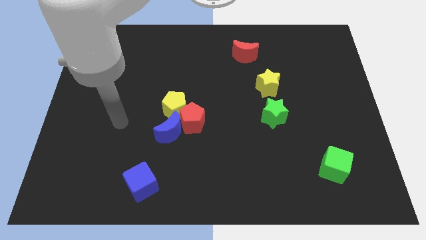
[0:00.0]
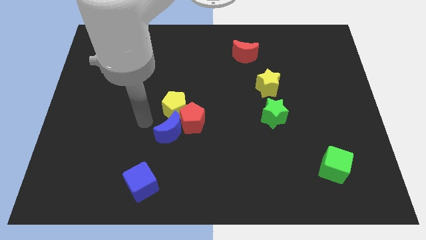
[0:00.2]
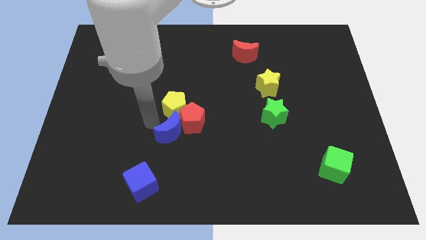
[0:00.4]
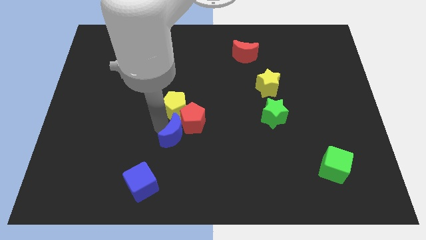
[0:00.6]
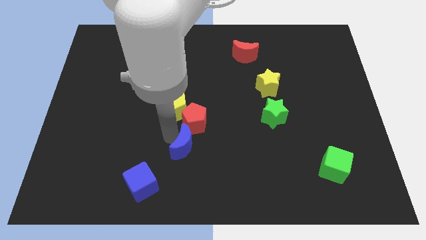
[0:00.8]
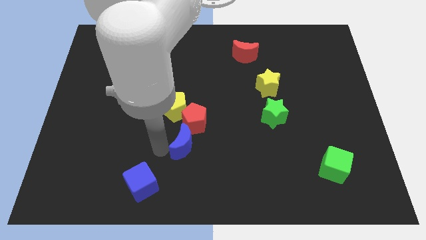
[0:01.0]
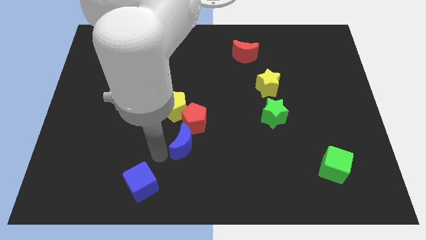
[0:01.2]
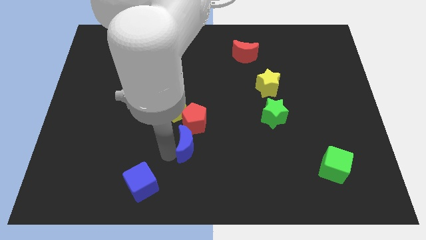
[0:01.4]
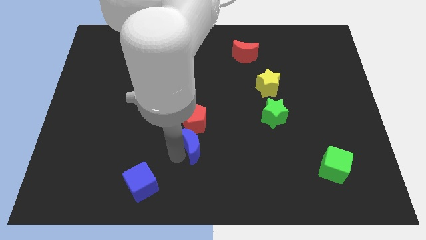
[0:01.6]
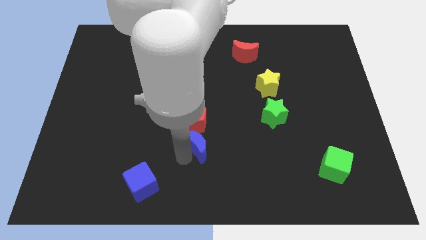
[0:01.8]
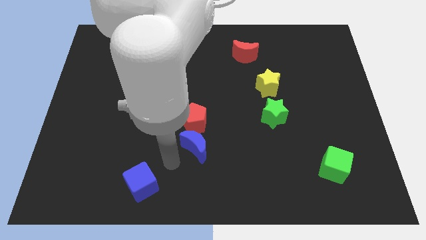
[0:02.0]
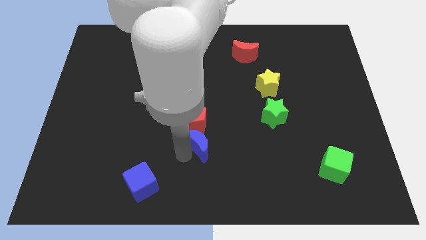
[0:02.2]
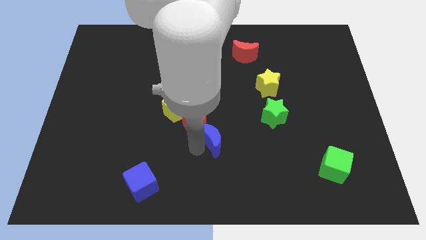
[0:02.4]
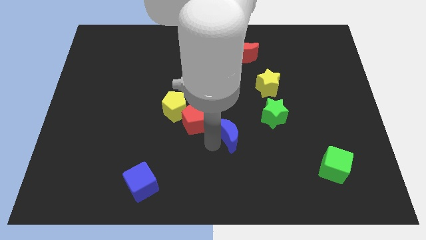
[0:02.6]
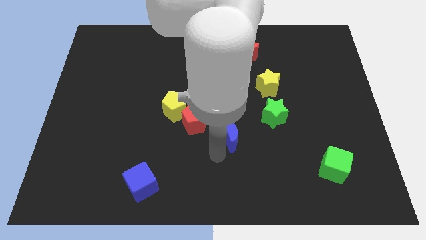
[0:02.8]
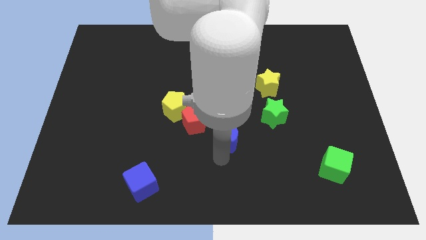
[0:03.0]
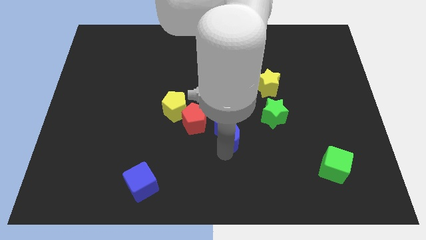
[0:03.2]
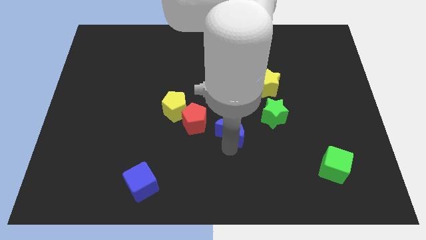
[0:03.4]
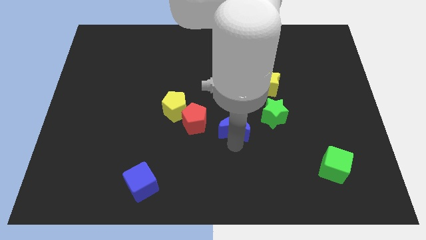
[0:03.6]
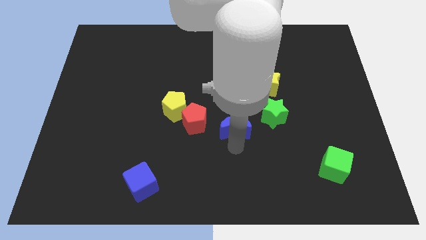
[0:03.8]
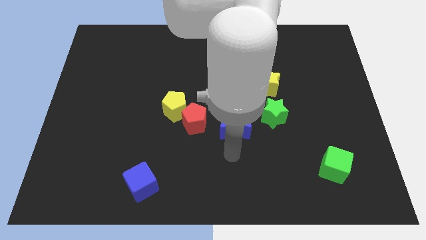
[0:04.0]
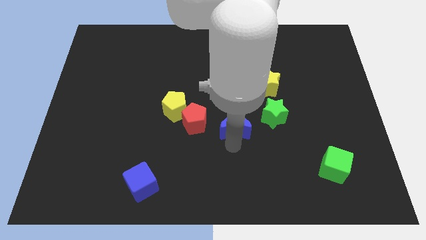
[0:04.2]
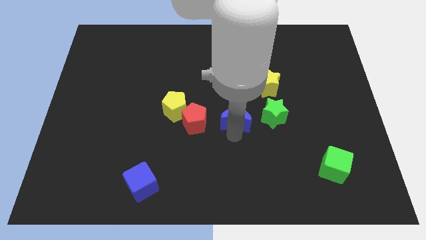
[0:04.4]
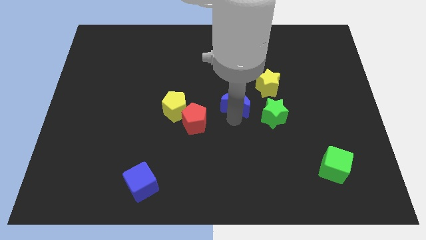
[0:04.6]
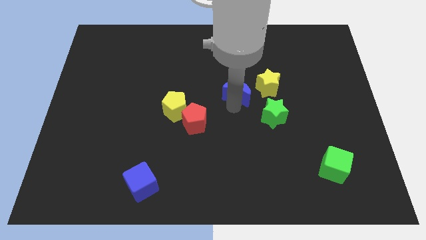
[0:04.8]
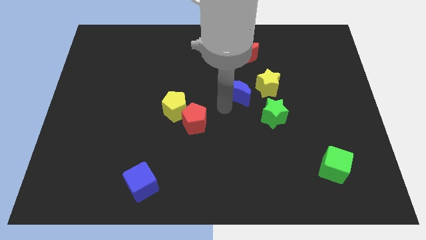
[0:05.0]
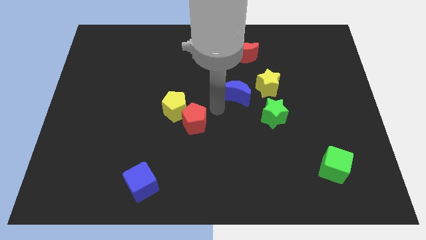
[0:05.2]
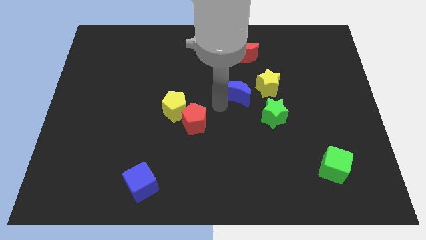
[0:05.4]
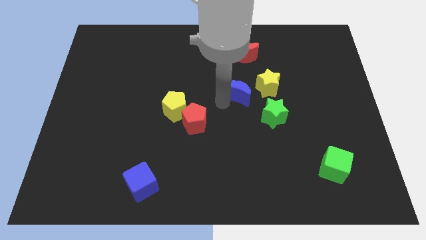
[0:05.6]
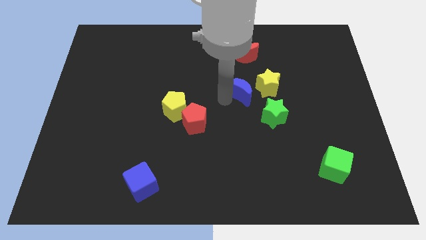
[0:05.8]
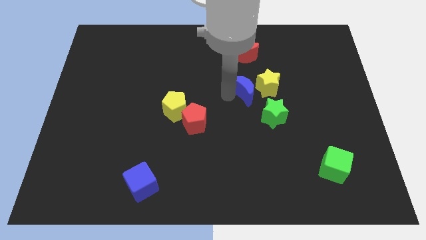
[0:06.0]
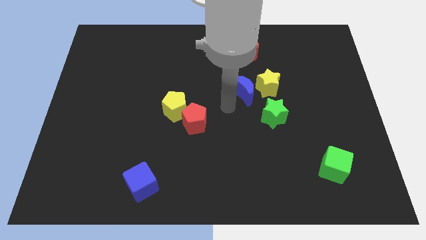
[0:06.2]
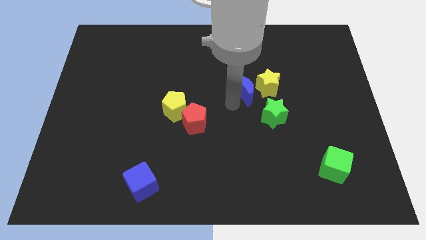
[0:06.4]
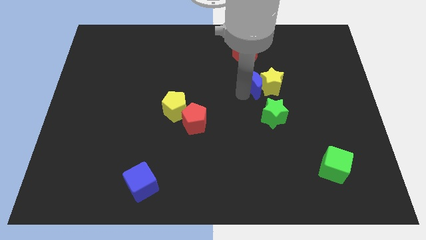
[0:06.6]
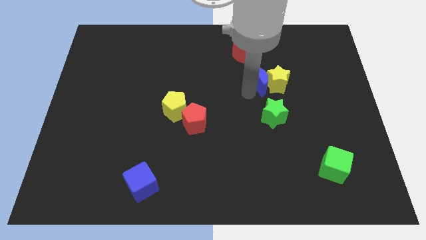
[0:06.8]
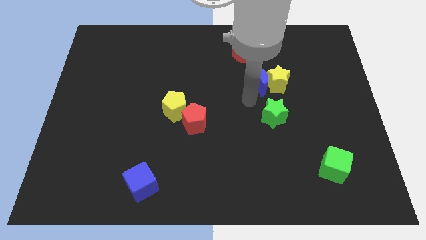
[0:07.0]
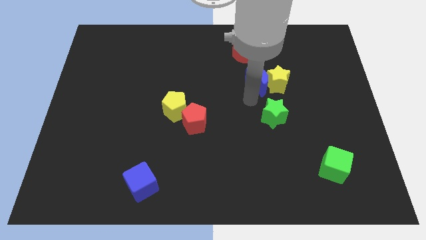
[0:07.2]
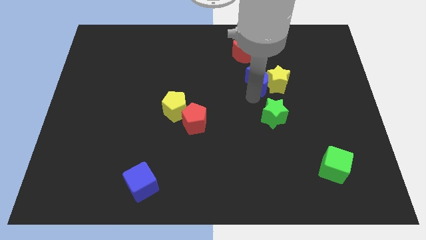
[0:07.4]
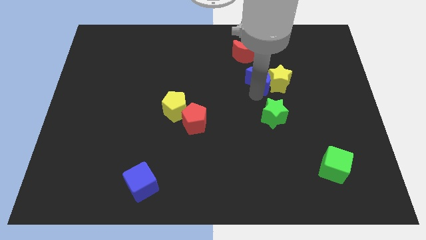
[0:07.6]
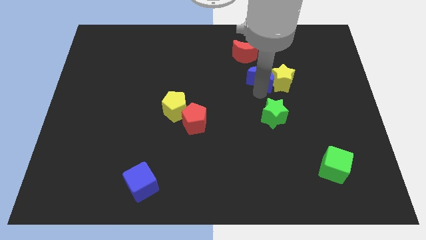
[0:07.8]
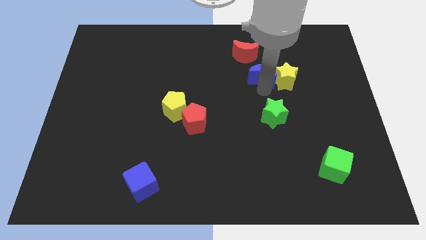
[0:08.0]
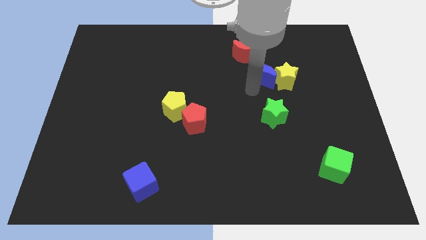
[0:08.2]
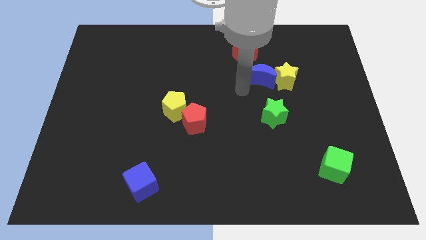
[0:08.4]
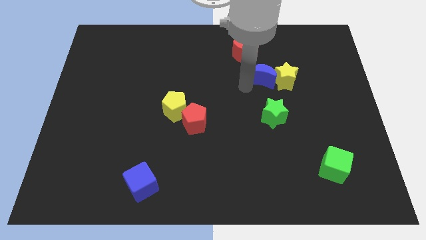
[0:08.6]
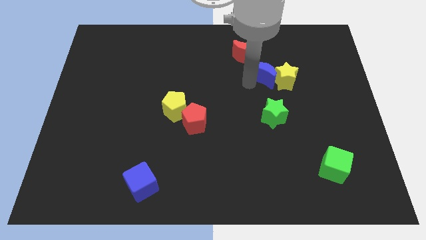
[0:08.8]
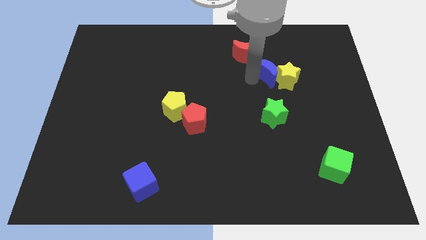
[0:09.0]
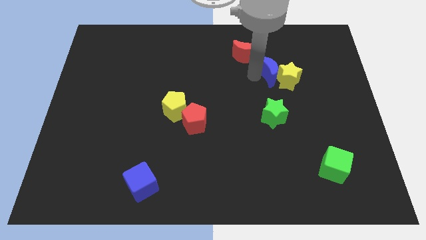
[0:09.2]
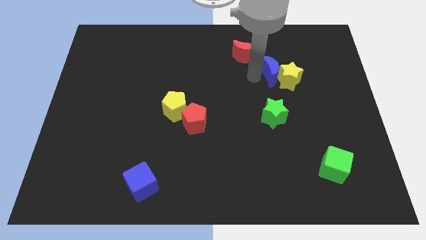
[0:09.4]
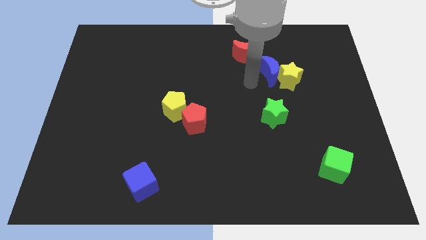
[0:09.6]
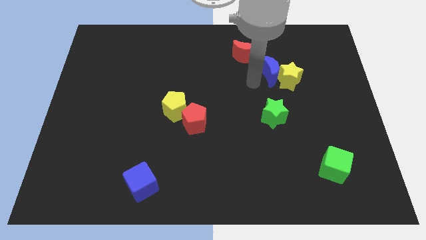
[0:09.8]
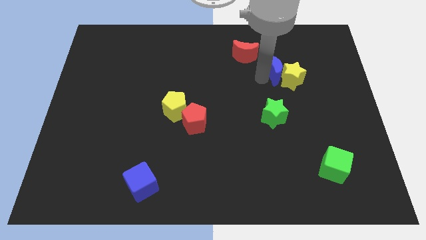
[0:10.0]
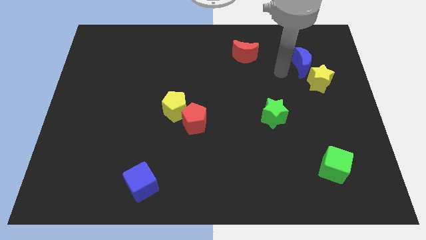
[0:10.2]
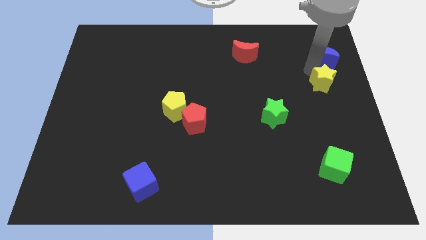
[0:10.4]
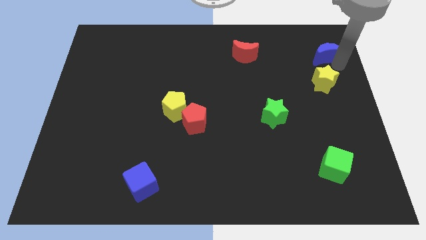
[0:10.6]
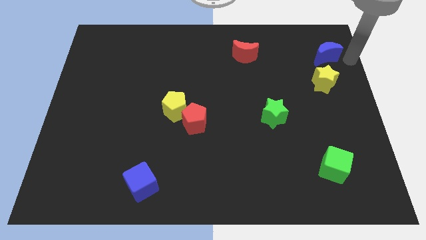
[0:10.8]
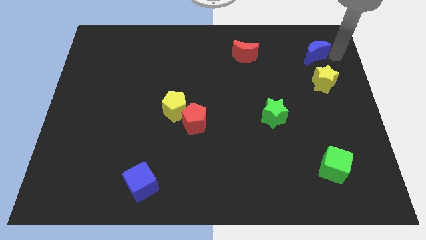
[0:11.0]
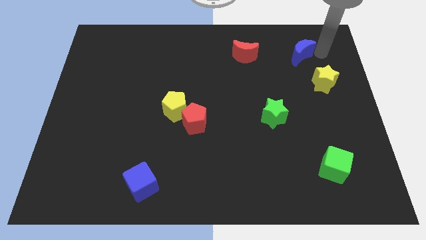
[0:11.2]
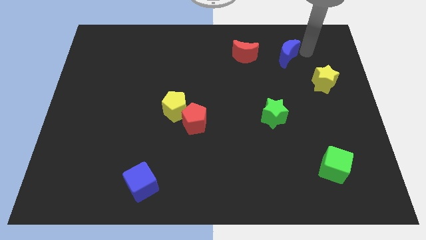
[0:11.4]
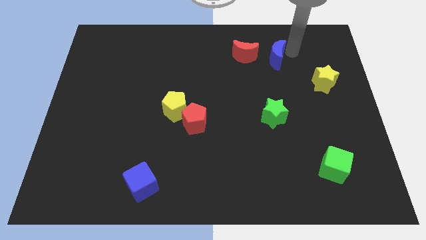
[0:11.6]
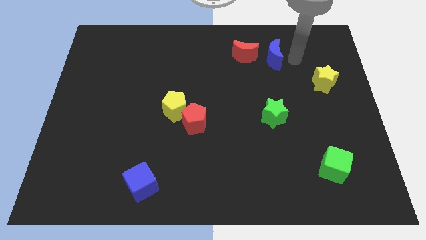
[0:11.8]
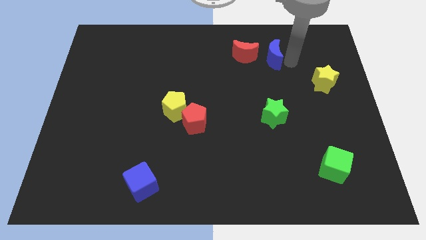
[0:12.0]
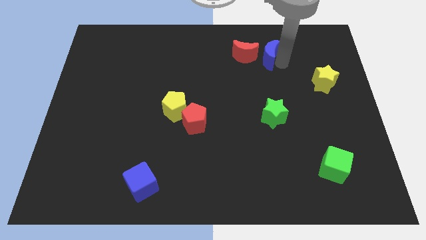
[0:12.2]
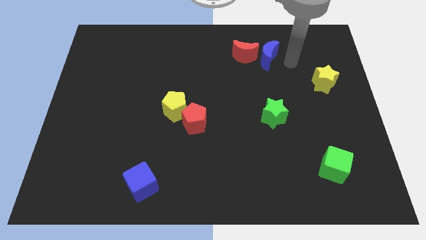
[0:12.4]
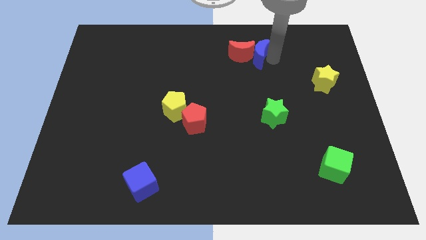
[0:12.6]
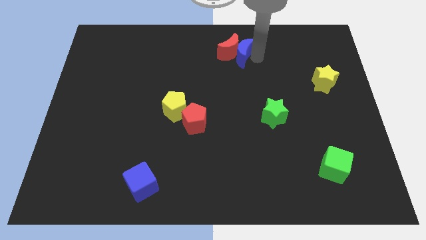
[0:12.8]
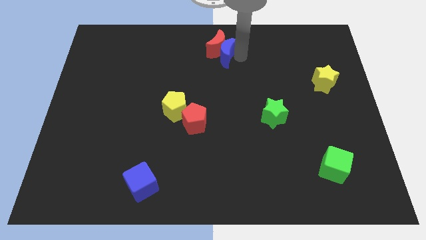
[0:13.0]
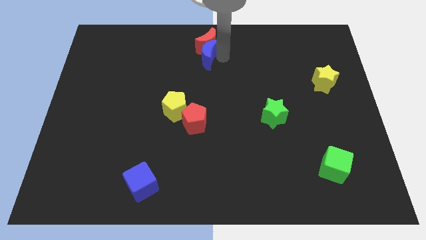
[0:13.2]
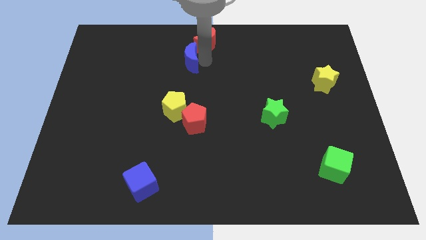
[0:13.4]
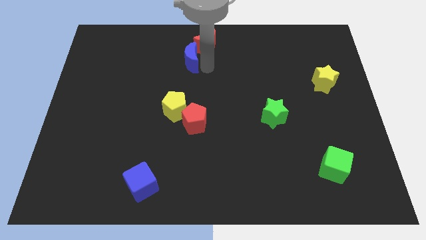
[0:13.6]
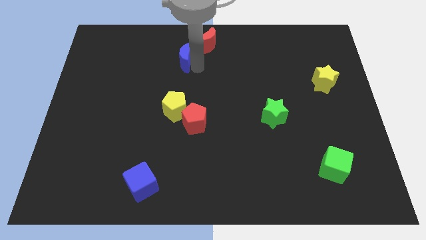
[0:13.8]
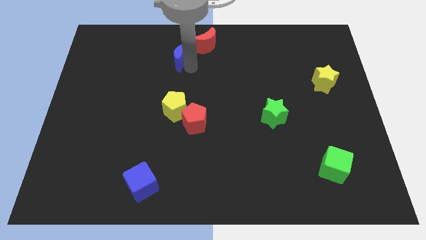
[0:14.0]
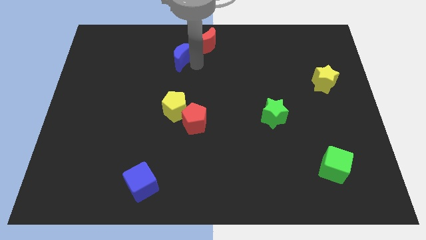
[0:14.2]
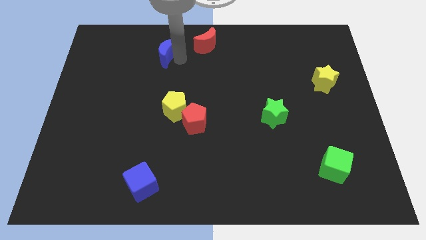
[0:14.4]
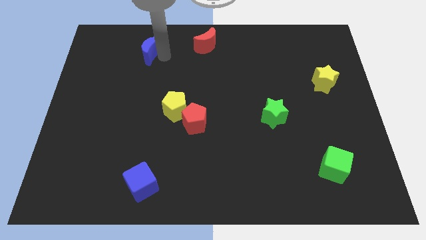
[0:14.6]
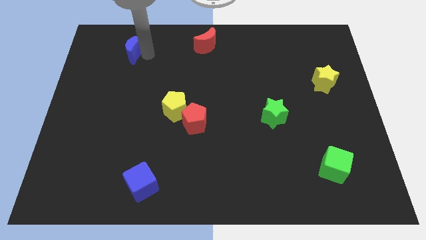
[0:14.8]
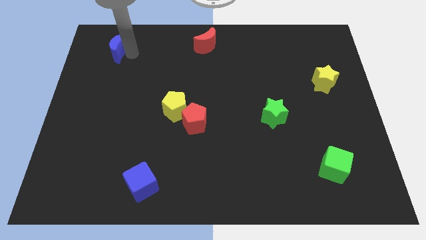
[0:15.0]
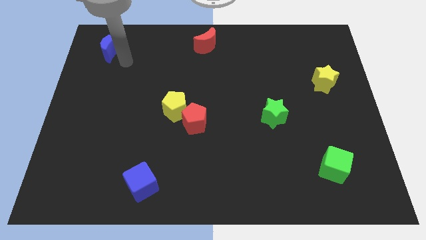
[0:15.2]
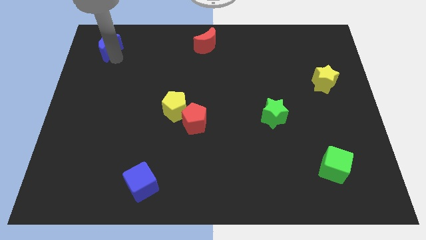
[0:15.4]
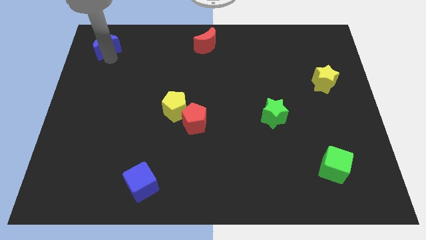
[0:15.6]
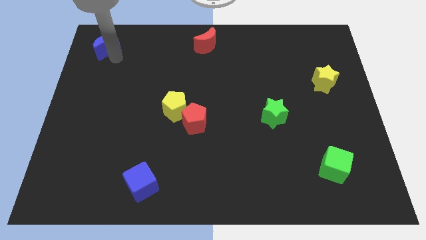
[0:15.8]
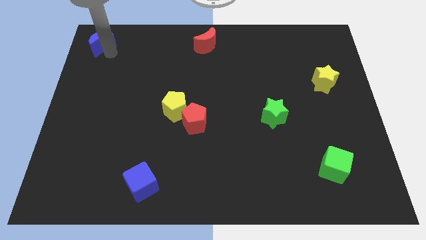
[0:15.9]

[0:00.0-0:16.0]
move the blue moon to the top left
